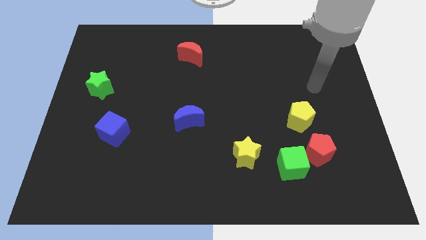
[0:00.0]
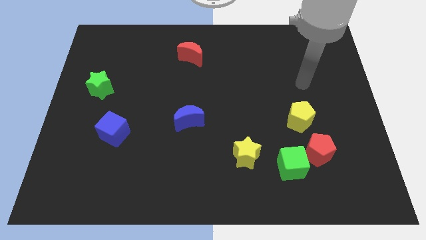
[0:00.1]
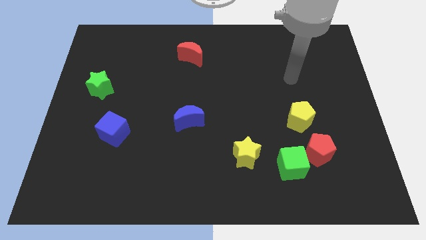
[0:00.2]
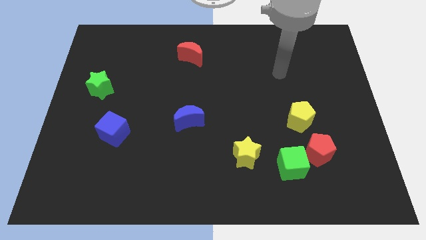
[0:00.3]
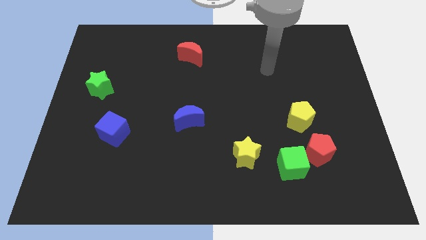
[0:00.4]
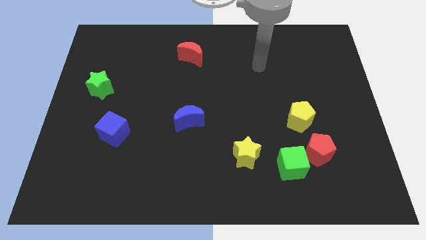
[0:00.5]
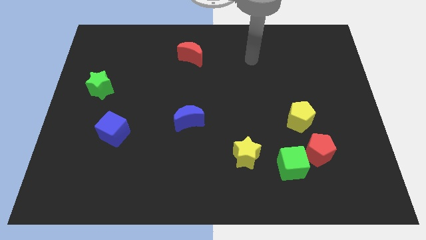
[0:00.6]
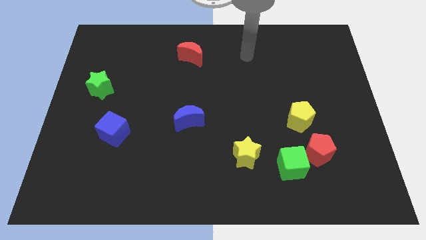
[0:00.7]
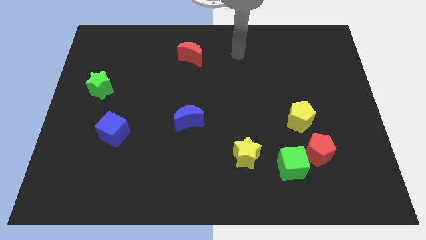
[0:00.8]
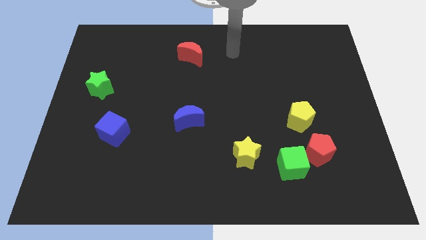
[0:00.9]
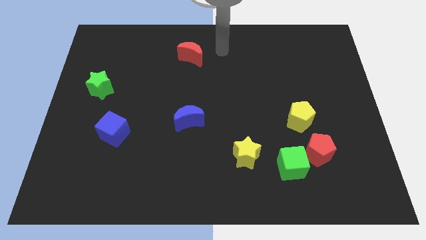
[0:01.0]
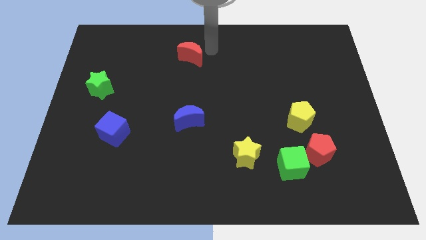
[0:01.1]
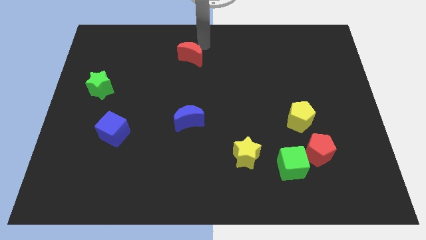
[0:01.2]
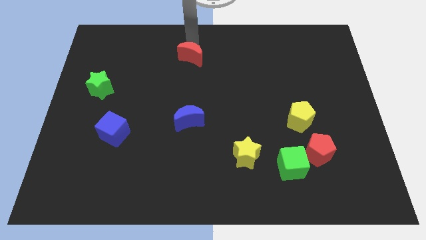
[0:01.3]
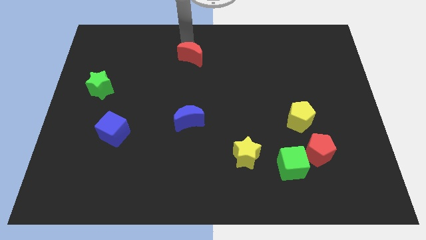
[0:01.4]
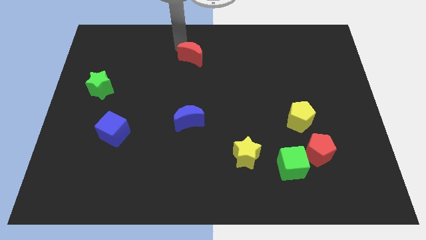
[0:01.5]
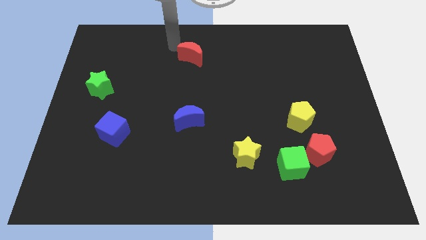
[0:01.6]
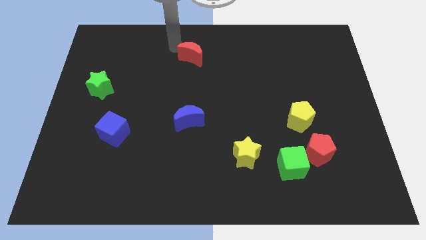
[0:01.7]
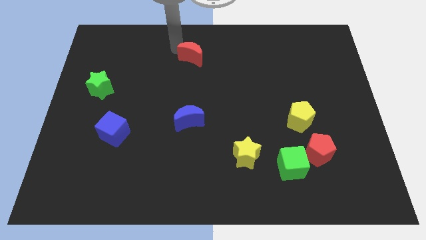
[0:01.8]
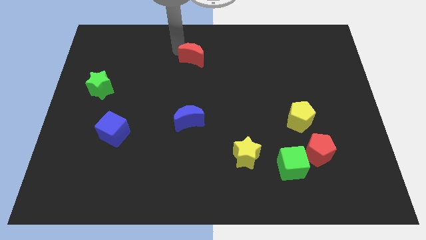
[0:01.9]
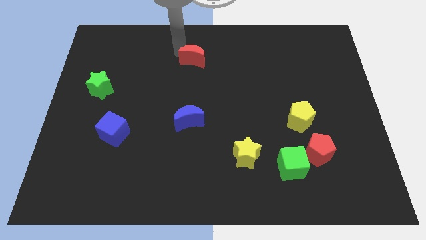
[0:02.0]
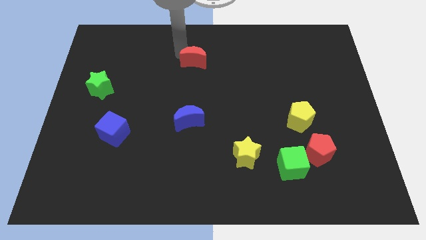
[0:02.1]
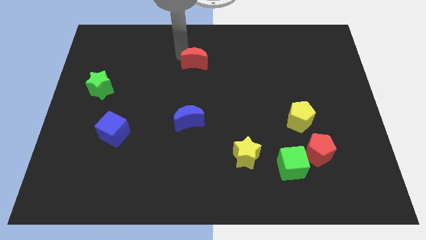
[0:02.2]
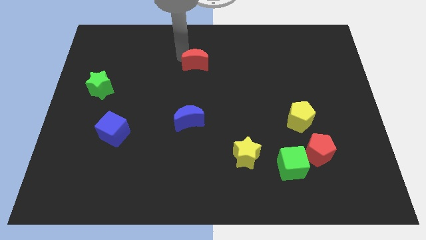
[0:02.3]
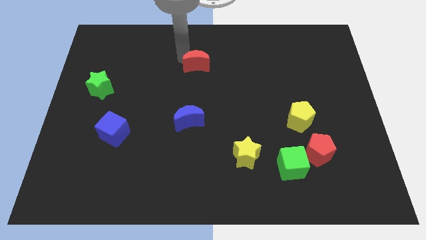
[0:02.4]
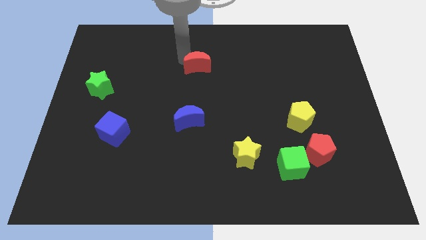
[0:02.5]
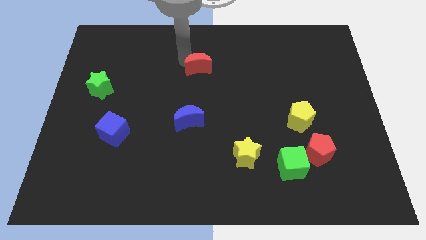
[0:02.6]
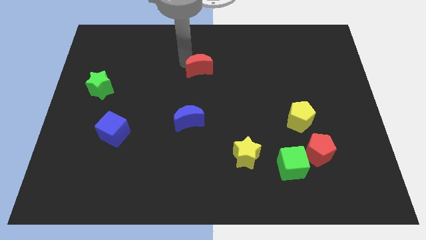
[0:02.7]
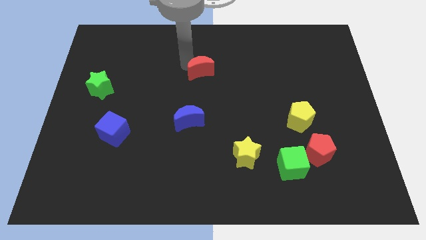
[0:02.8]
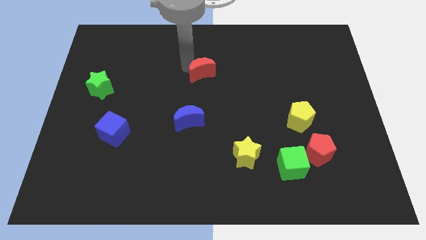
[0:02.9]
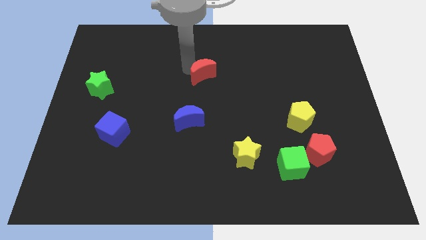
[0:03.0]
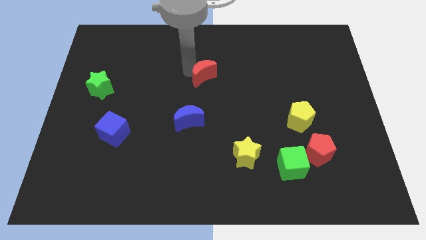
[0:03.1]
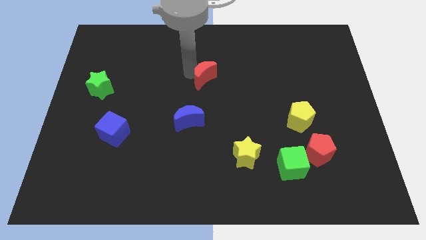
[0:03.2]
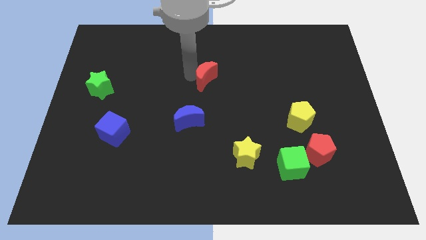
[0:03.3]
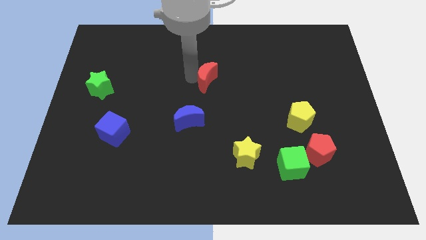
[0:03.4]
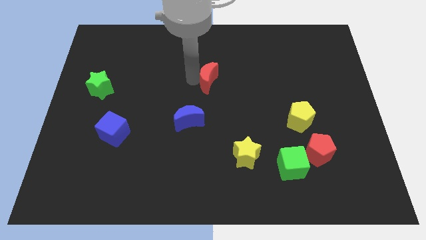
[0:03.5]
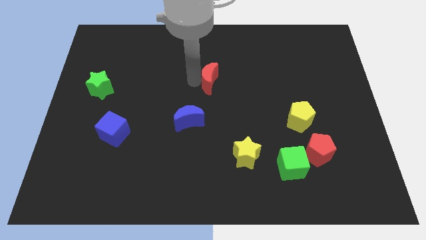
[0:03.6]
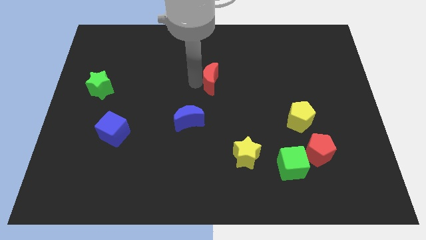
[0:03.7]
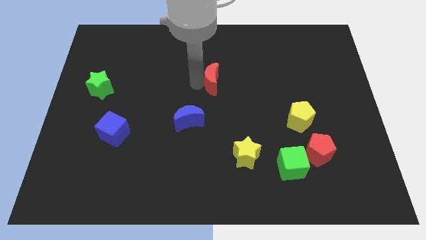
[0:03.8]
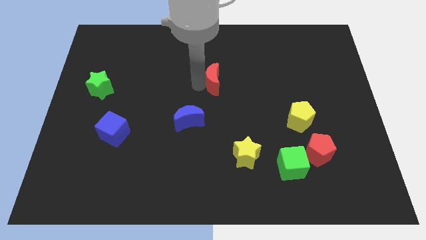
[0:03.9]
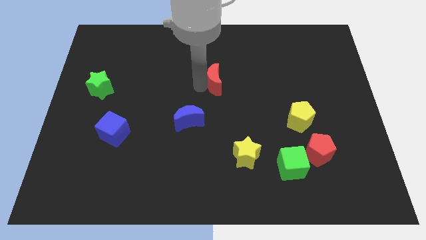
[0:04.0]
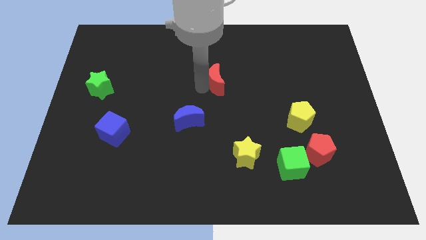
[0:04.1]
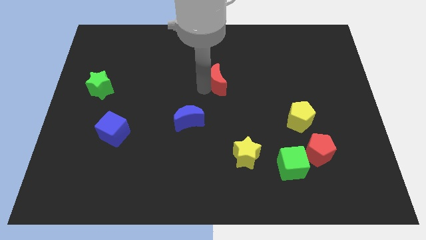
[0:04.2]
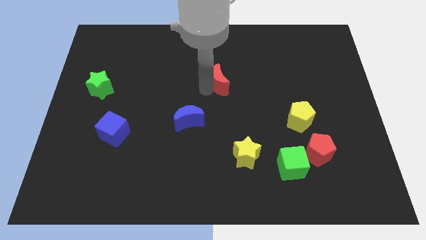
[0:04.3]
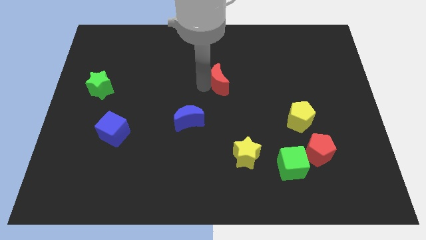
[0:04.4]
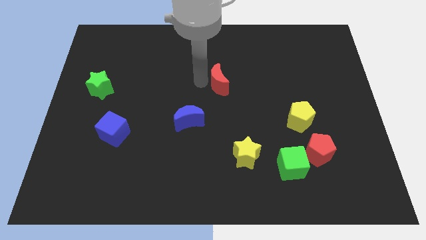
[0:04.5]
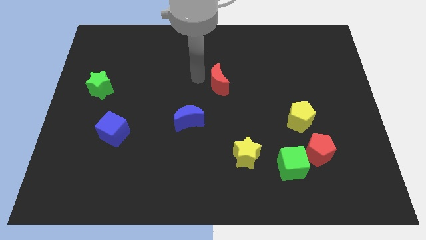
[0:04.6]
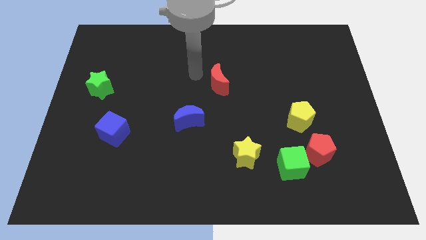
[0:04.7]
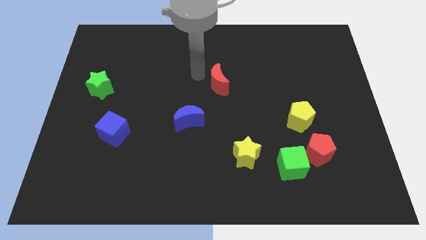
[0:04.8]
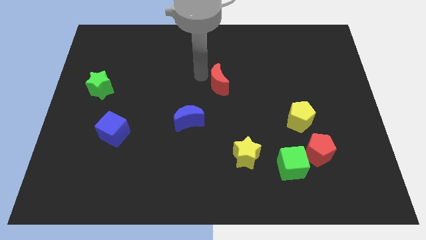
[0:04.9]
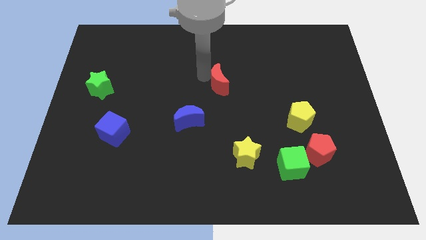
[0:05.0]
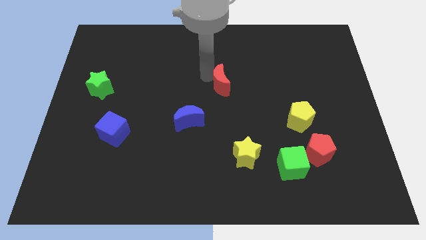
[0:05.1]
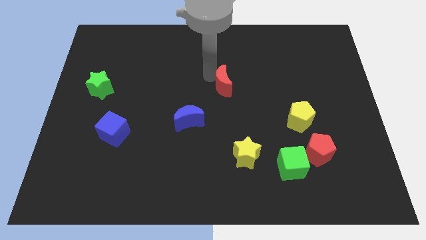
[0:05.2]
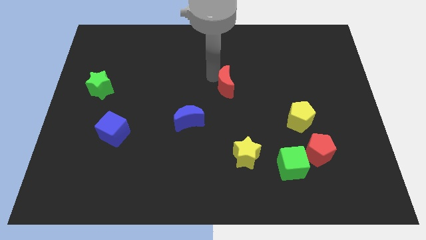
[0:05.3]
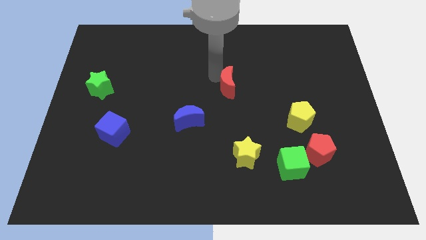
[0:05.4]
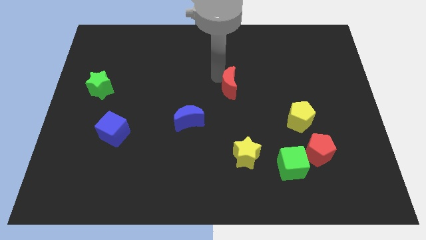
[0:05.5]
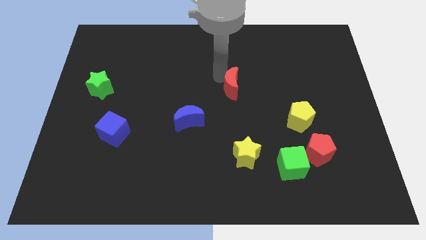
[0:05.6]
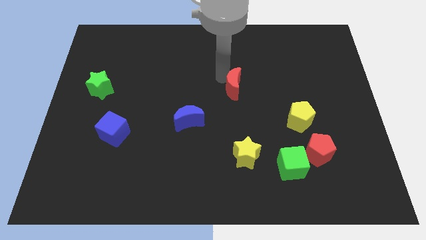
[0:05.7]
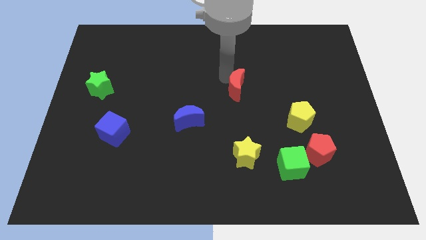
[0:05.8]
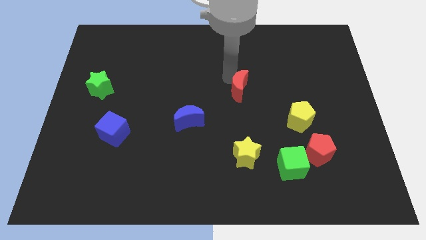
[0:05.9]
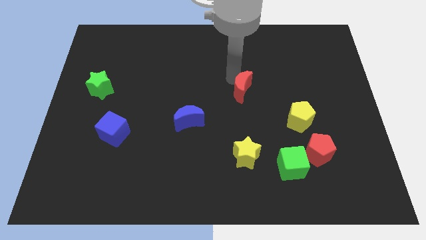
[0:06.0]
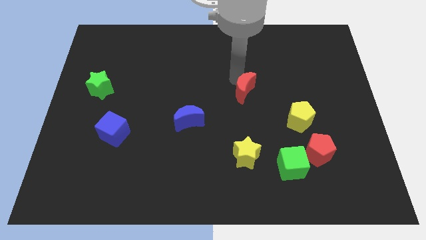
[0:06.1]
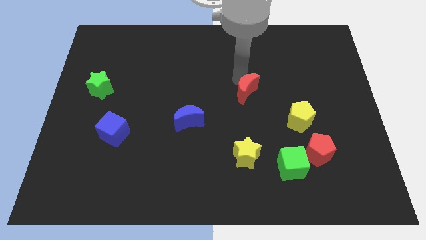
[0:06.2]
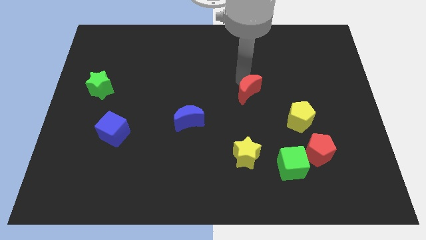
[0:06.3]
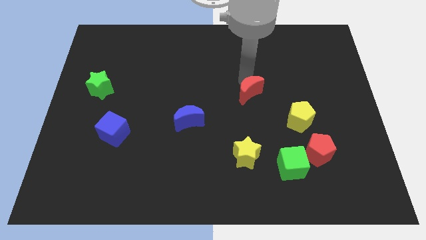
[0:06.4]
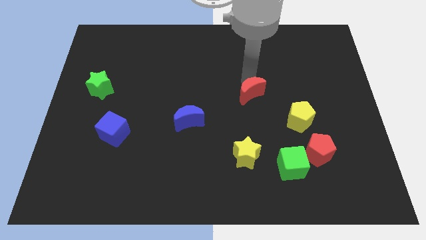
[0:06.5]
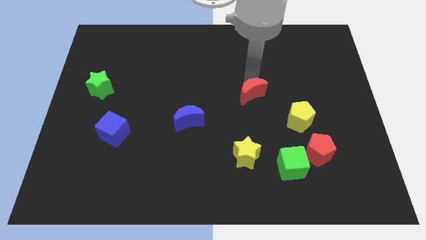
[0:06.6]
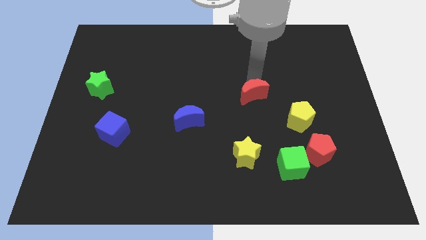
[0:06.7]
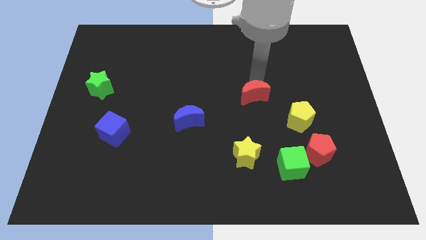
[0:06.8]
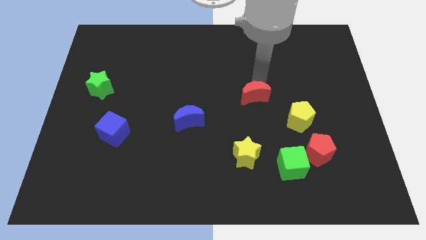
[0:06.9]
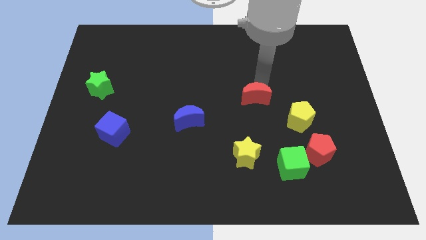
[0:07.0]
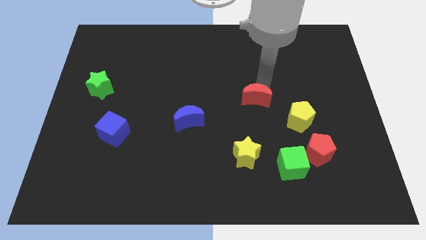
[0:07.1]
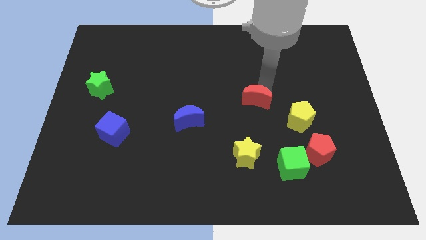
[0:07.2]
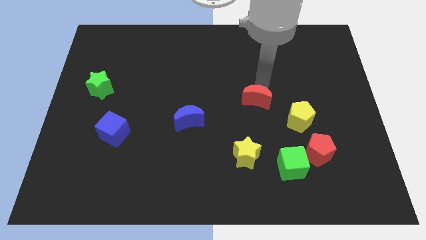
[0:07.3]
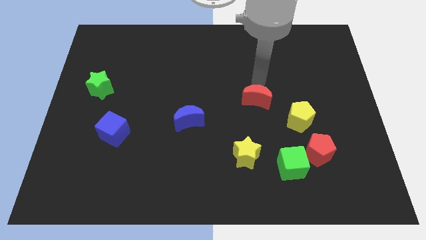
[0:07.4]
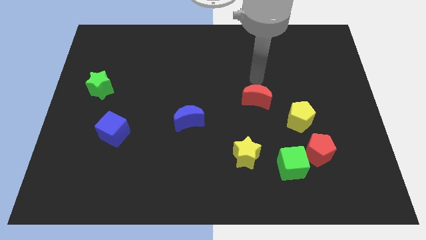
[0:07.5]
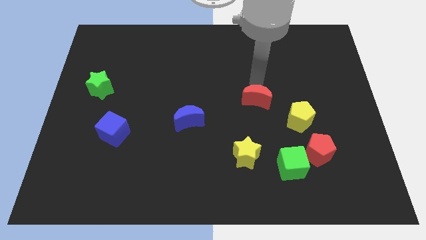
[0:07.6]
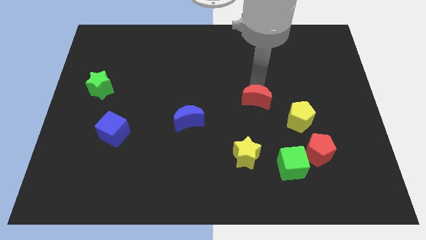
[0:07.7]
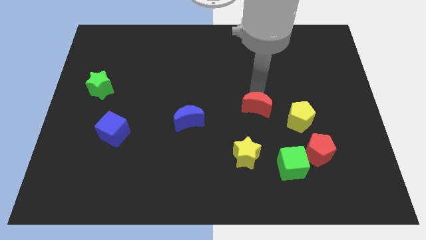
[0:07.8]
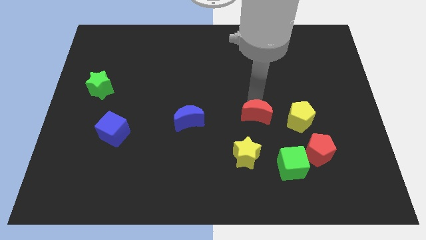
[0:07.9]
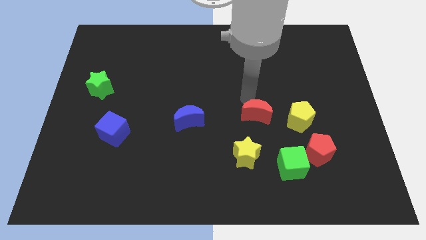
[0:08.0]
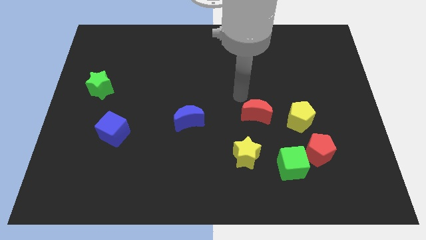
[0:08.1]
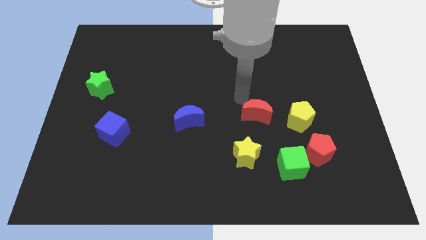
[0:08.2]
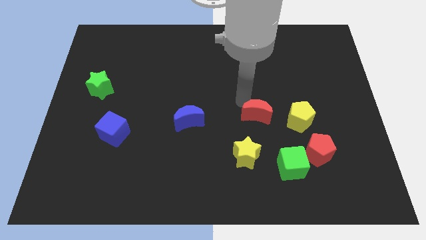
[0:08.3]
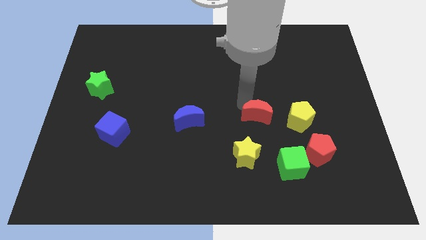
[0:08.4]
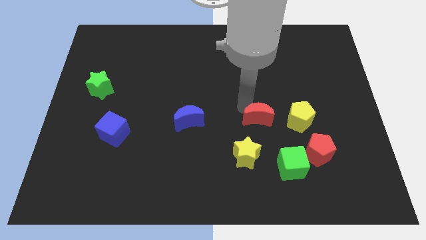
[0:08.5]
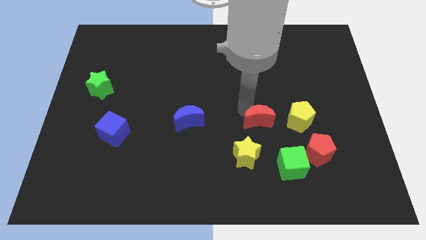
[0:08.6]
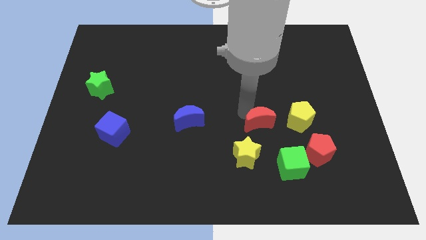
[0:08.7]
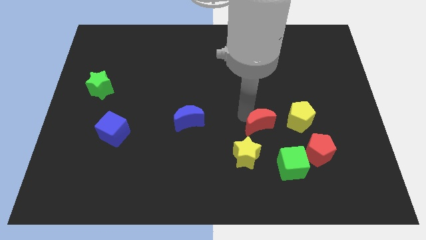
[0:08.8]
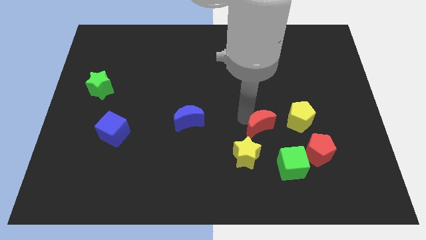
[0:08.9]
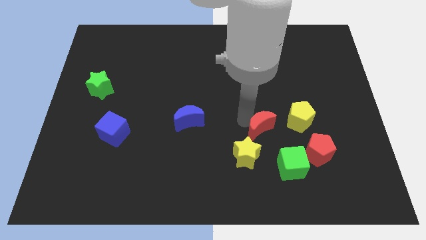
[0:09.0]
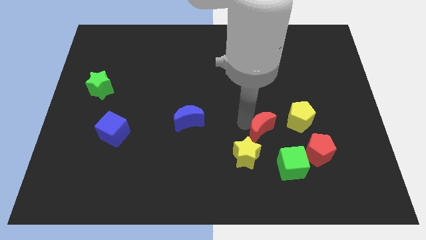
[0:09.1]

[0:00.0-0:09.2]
slide the red moon to the bottom left of the yellow pentagon
